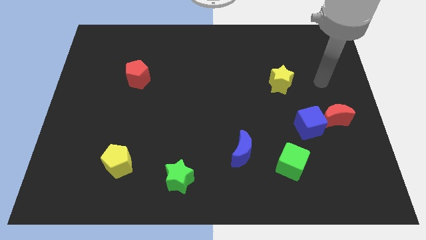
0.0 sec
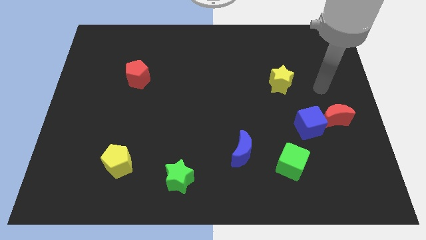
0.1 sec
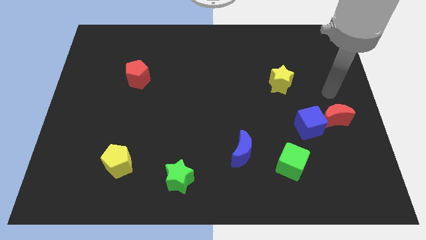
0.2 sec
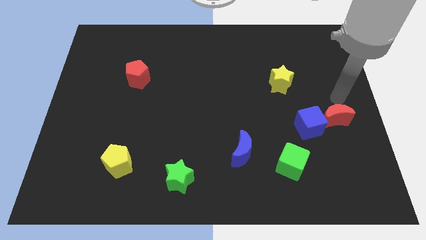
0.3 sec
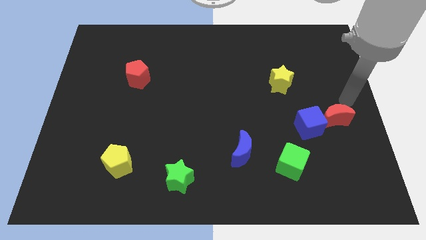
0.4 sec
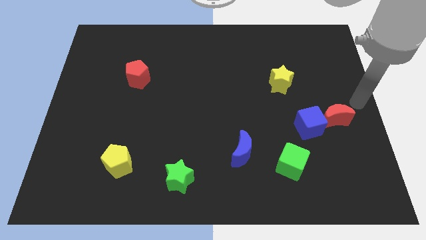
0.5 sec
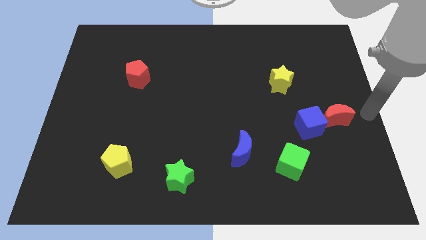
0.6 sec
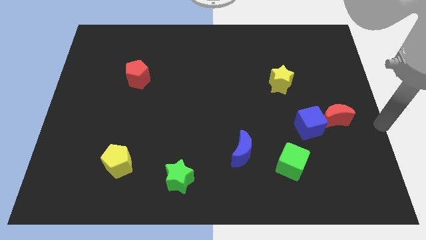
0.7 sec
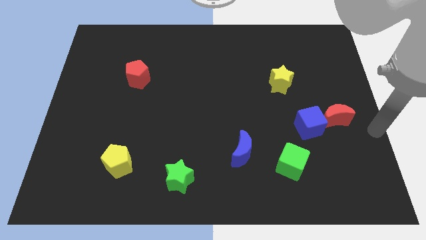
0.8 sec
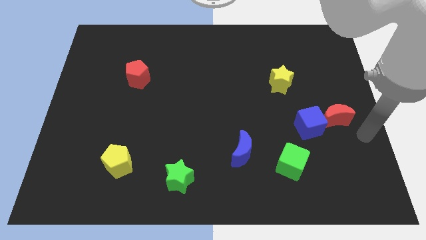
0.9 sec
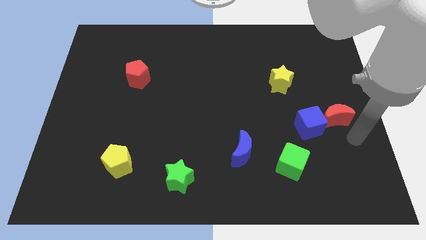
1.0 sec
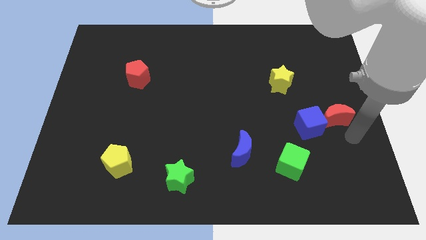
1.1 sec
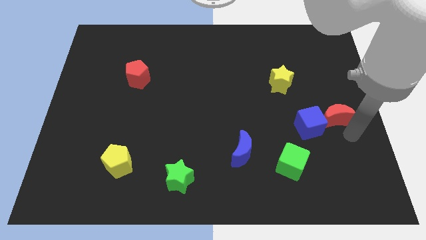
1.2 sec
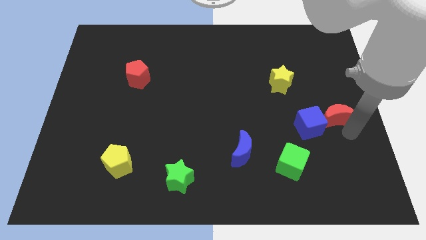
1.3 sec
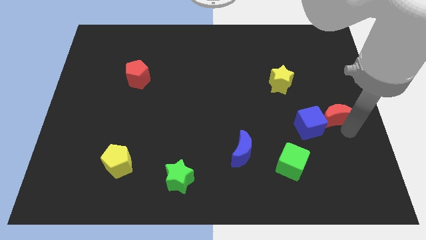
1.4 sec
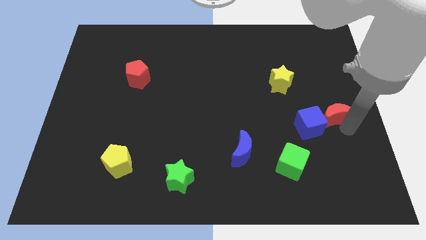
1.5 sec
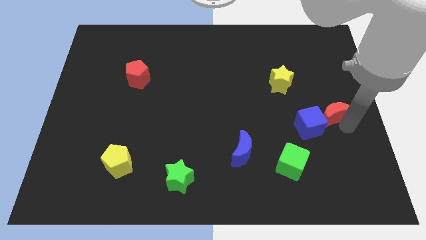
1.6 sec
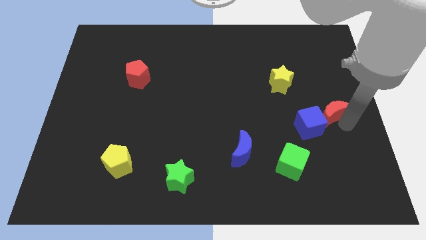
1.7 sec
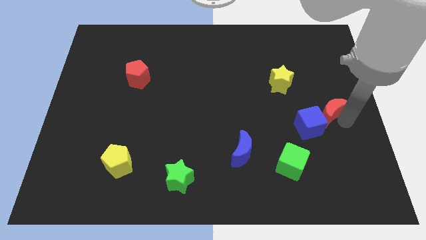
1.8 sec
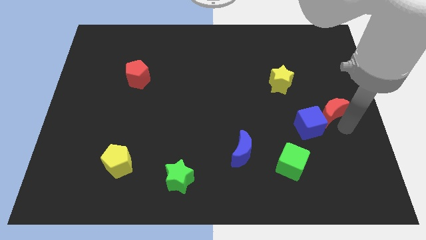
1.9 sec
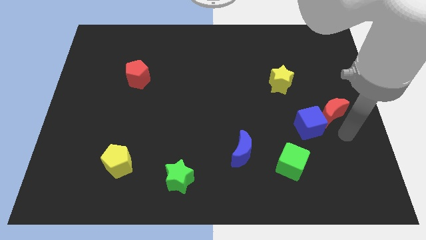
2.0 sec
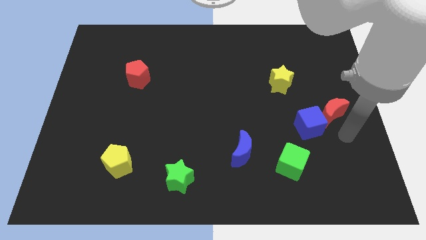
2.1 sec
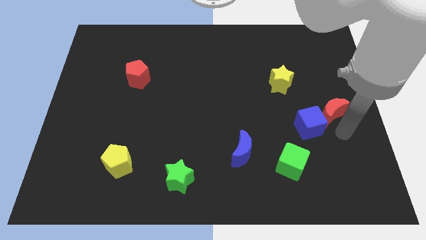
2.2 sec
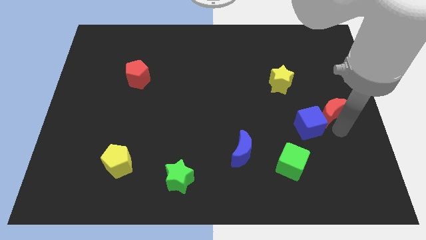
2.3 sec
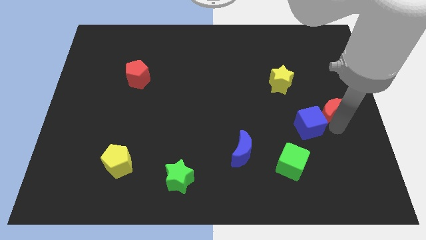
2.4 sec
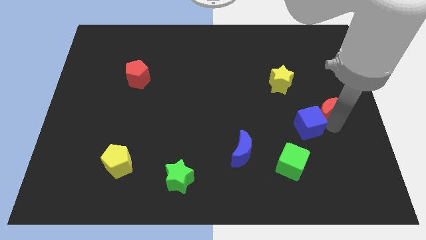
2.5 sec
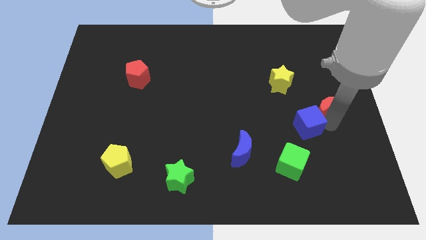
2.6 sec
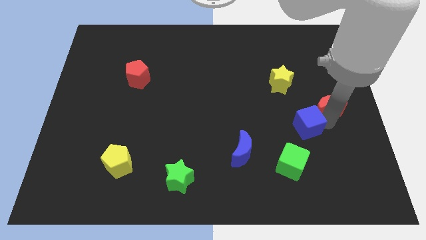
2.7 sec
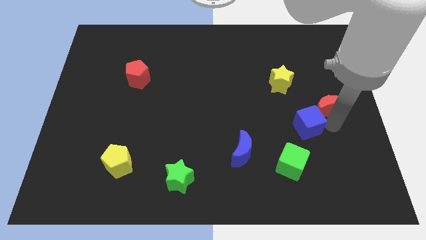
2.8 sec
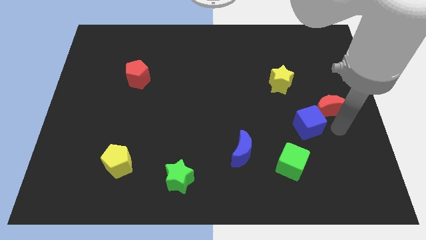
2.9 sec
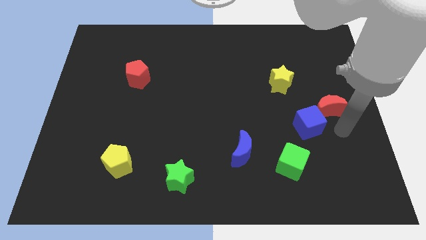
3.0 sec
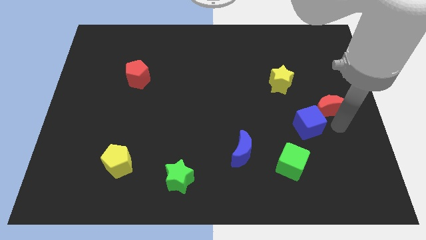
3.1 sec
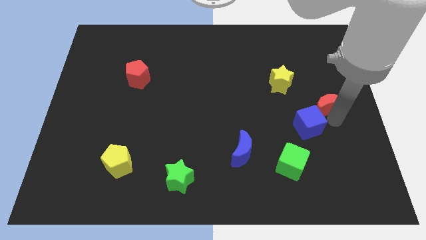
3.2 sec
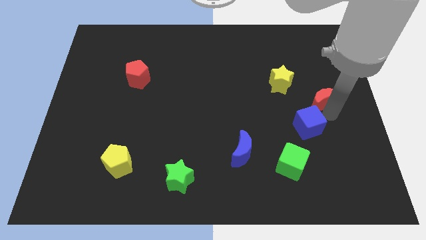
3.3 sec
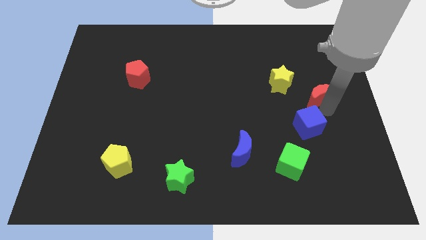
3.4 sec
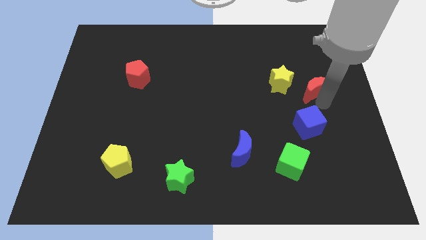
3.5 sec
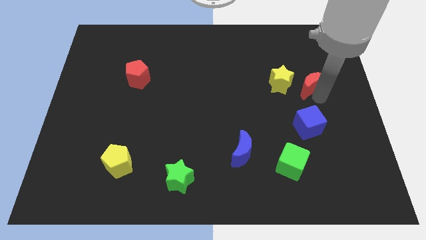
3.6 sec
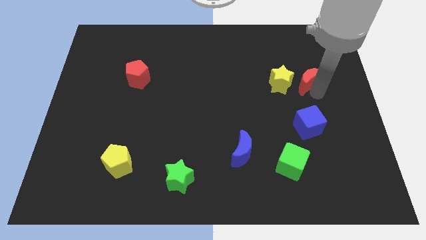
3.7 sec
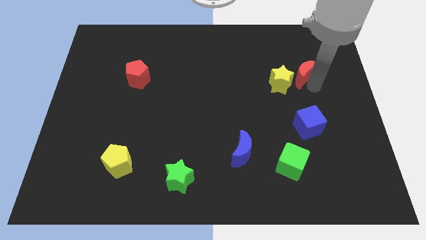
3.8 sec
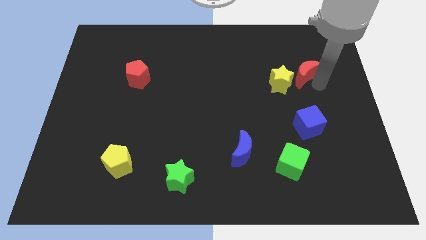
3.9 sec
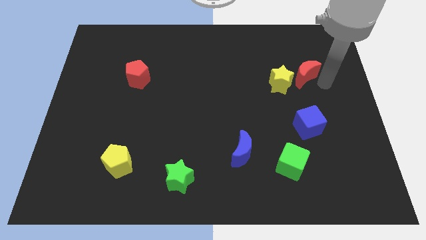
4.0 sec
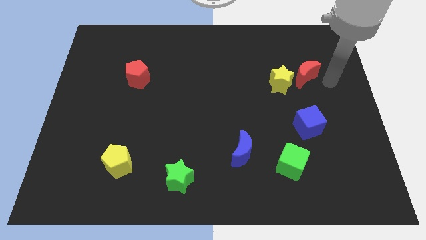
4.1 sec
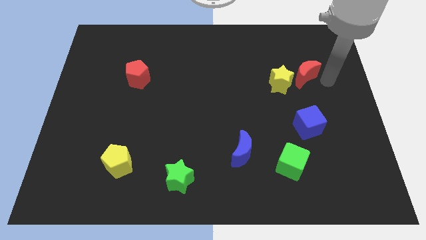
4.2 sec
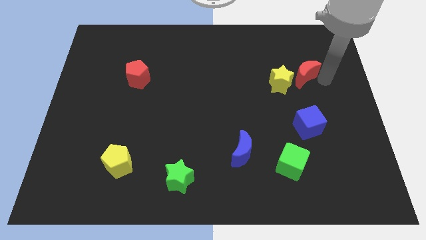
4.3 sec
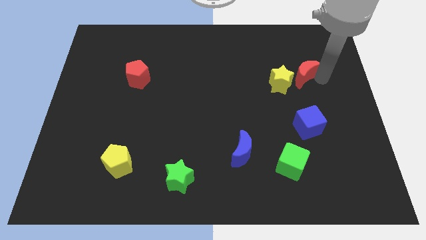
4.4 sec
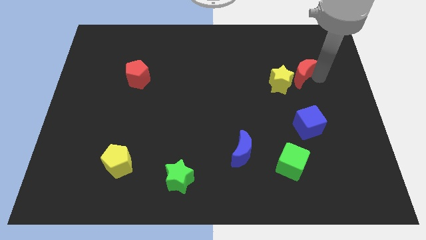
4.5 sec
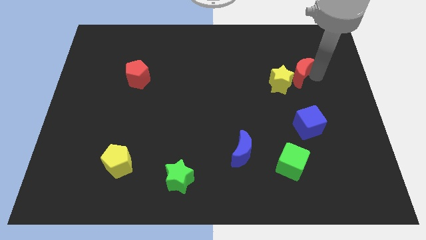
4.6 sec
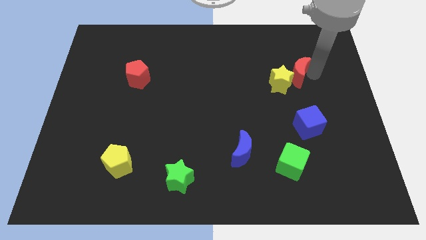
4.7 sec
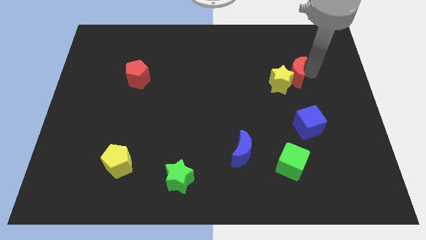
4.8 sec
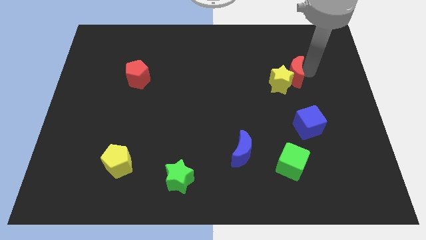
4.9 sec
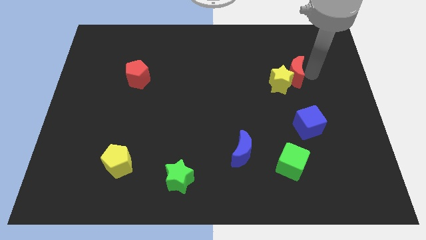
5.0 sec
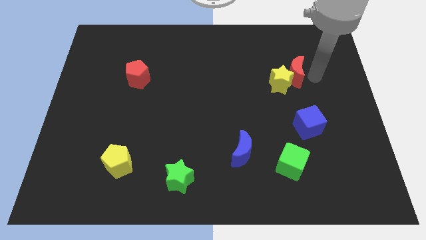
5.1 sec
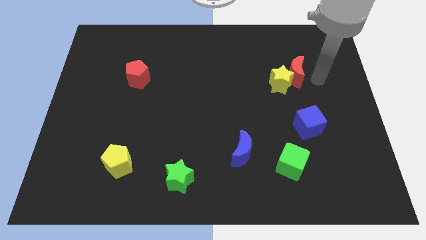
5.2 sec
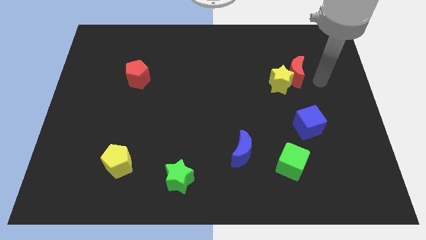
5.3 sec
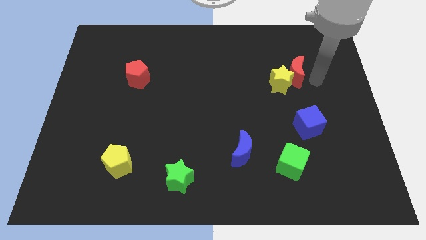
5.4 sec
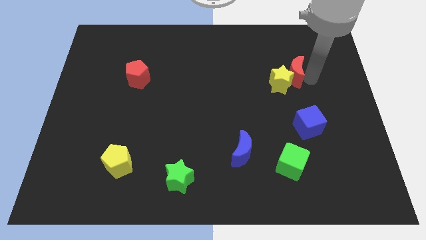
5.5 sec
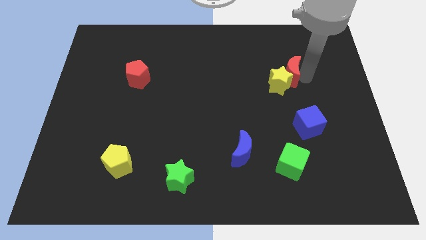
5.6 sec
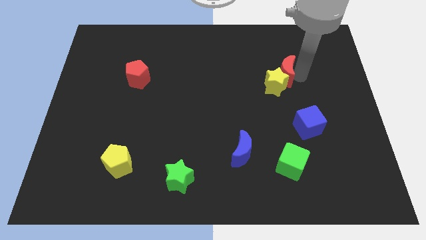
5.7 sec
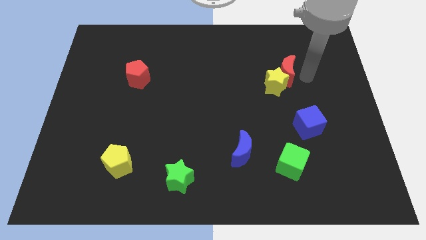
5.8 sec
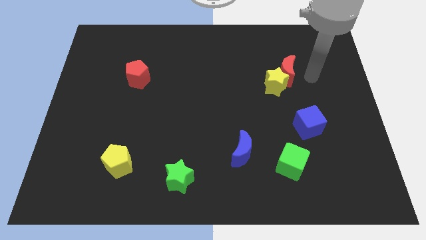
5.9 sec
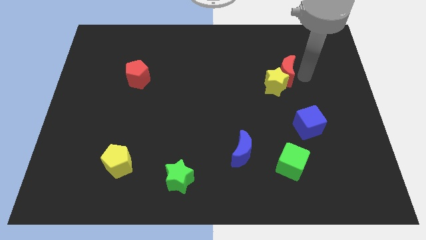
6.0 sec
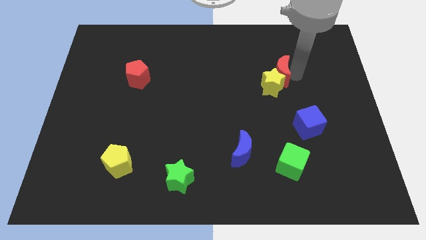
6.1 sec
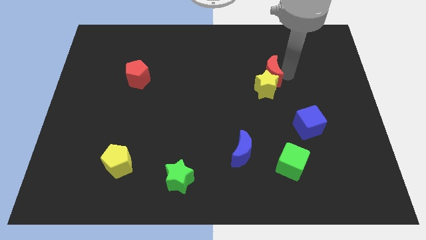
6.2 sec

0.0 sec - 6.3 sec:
slide the red moon diagonally up and to the left of the yellow star

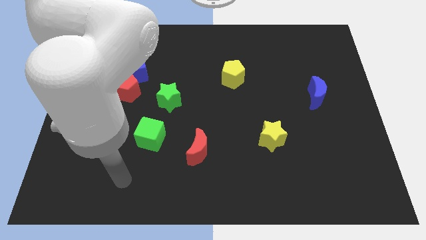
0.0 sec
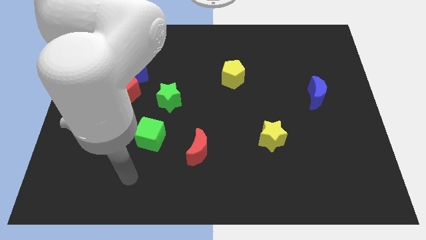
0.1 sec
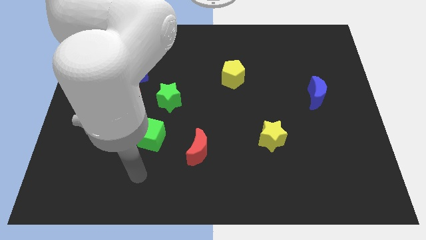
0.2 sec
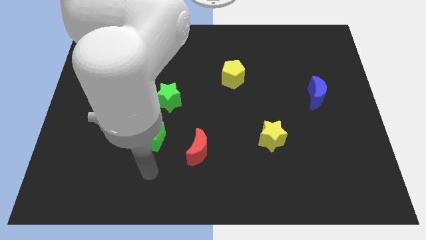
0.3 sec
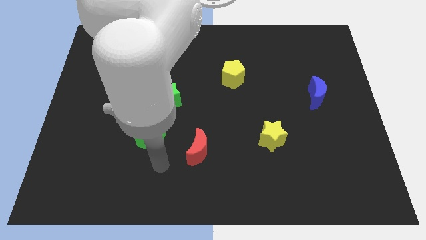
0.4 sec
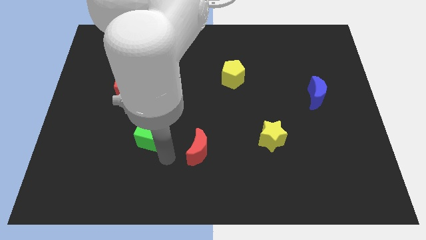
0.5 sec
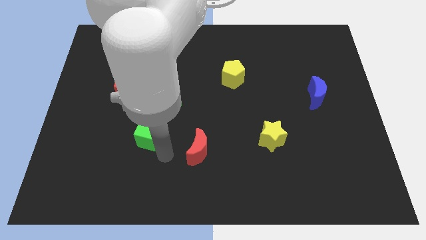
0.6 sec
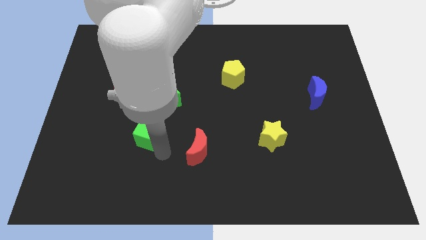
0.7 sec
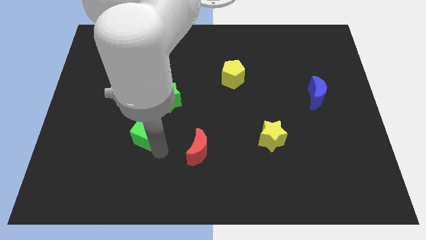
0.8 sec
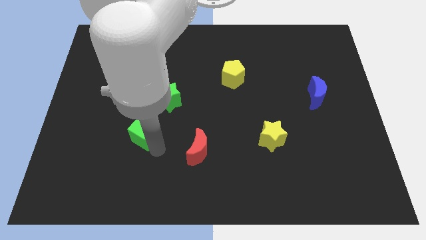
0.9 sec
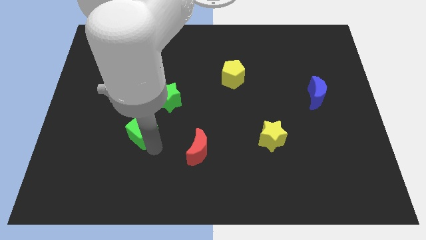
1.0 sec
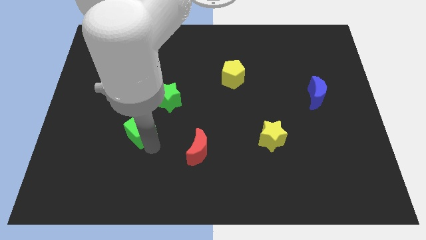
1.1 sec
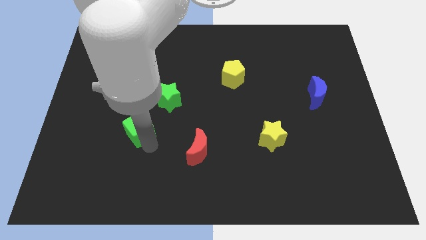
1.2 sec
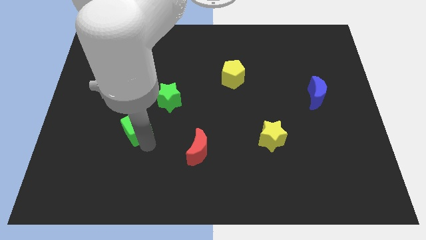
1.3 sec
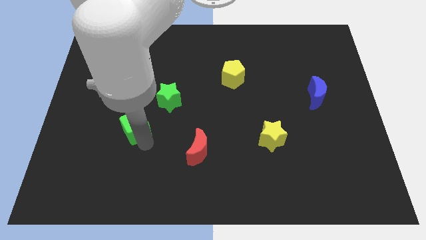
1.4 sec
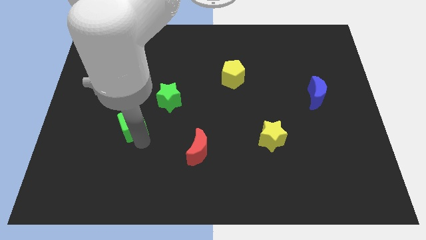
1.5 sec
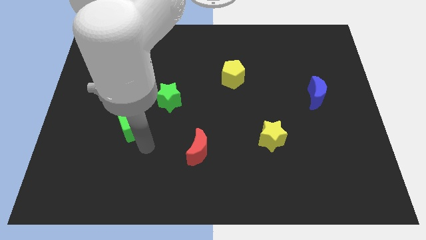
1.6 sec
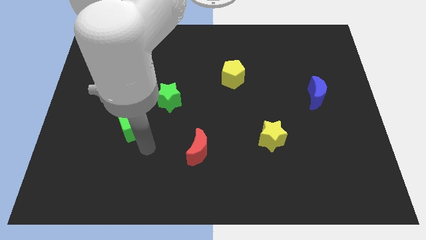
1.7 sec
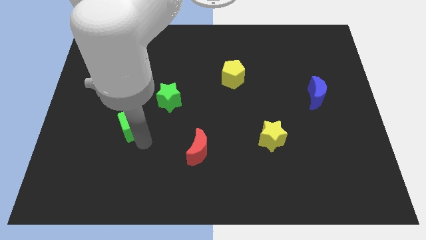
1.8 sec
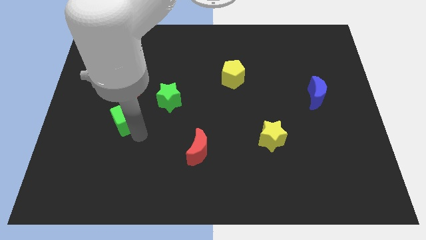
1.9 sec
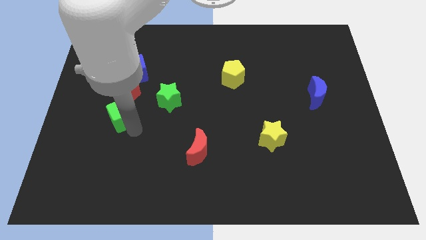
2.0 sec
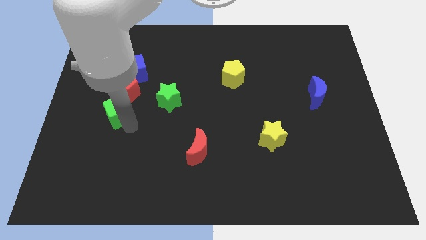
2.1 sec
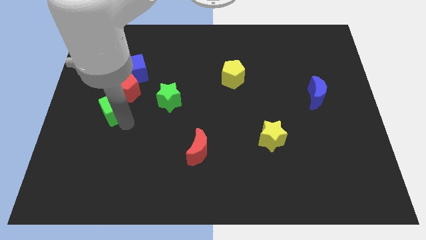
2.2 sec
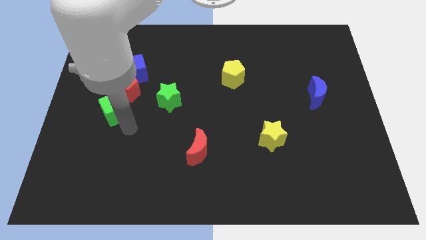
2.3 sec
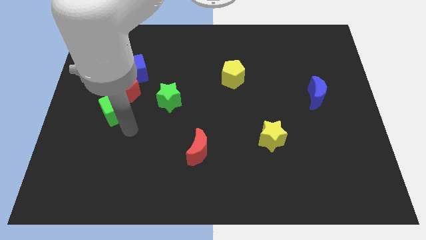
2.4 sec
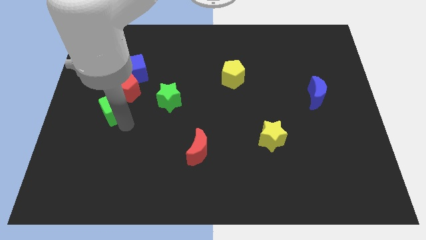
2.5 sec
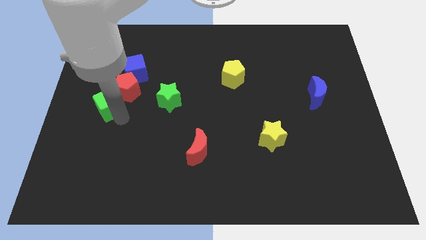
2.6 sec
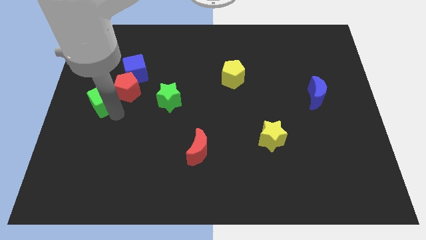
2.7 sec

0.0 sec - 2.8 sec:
slide the green cube diagonally down and to the left of the blue cube
